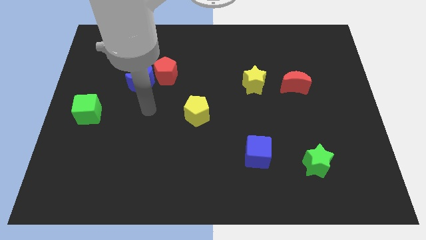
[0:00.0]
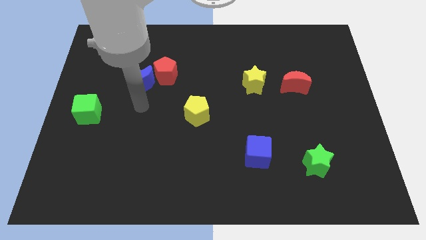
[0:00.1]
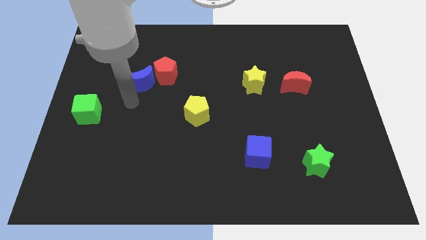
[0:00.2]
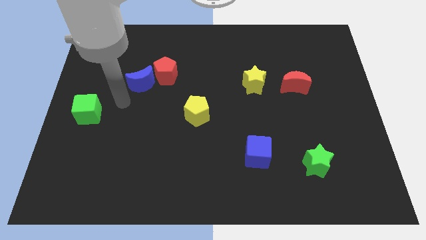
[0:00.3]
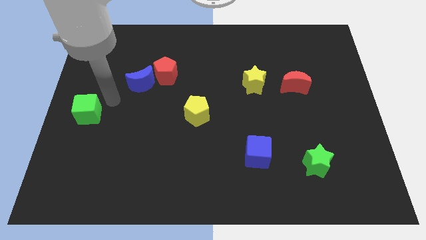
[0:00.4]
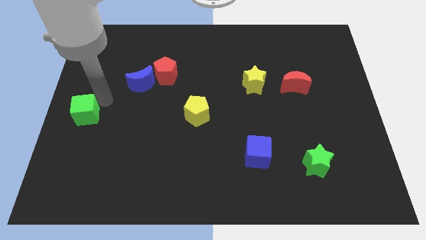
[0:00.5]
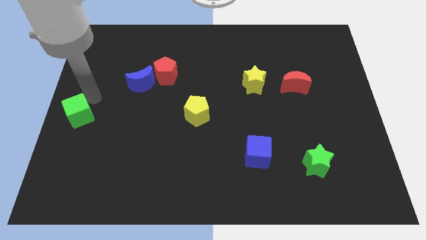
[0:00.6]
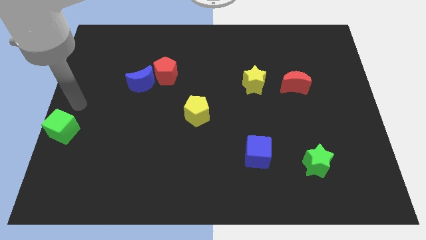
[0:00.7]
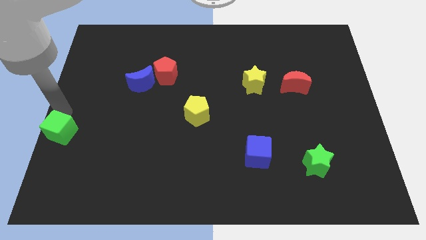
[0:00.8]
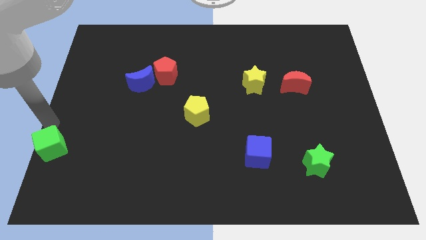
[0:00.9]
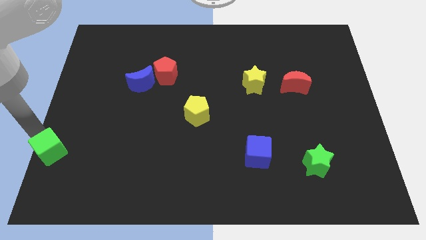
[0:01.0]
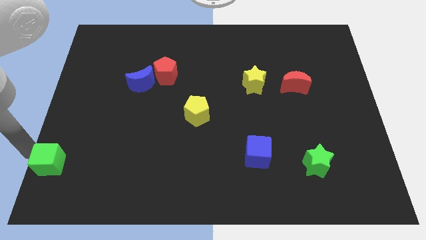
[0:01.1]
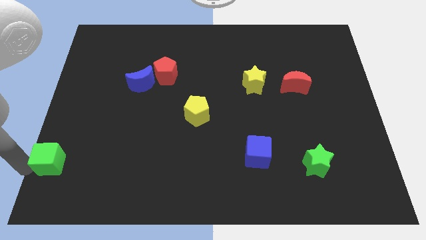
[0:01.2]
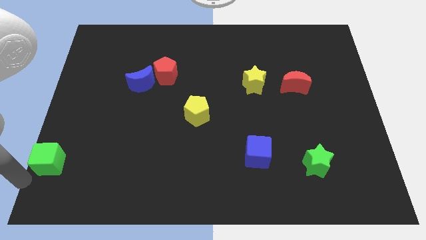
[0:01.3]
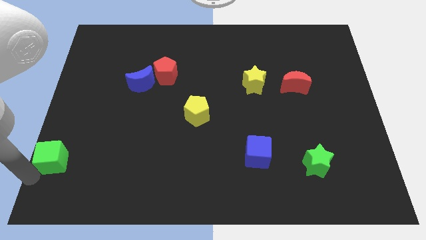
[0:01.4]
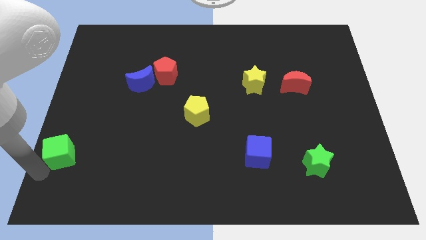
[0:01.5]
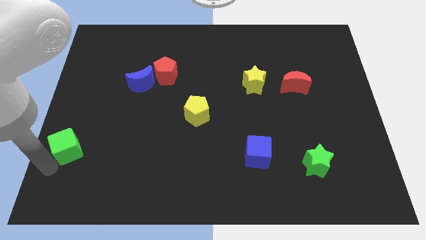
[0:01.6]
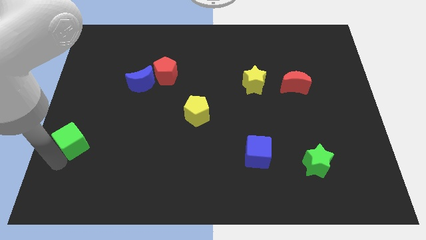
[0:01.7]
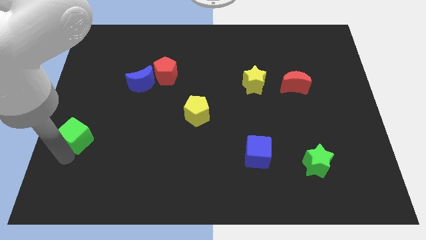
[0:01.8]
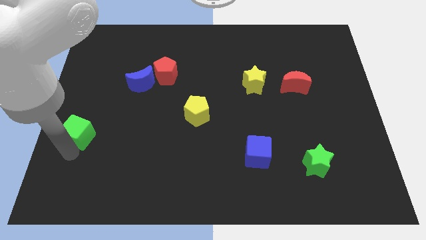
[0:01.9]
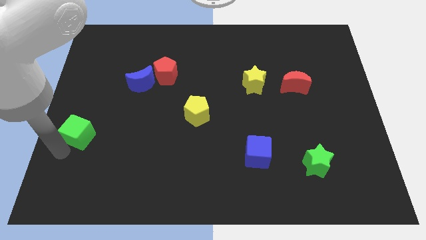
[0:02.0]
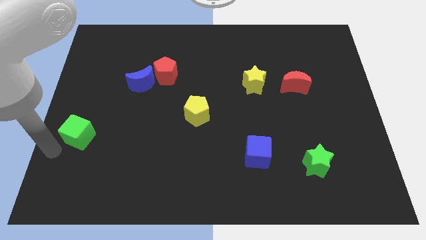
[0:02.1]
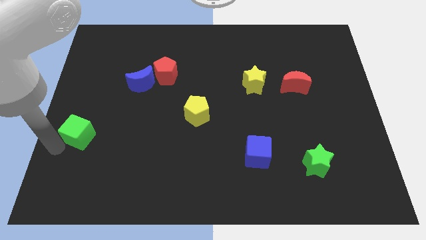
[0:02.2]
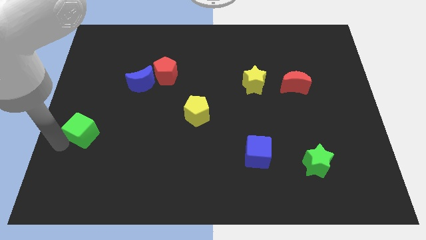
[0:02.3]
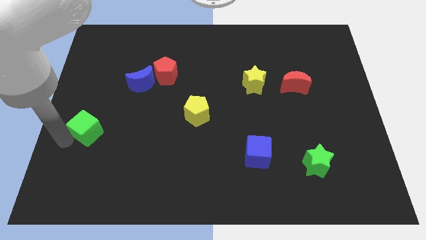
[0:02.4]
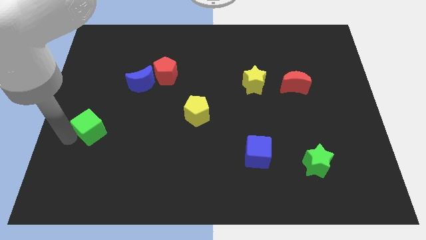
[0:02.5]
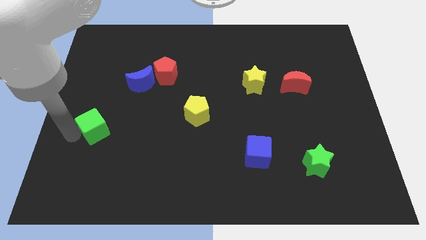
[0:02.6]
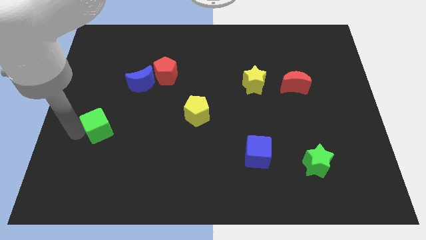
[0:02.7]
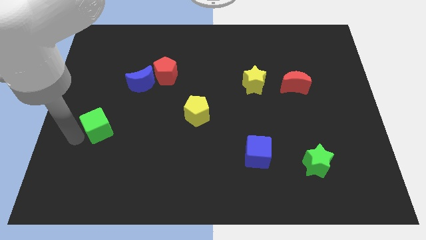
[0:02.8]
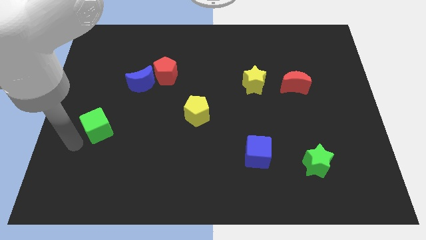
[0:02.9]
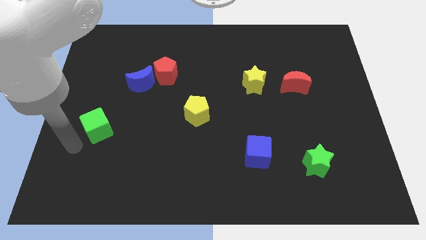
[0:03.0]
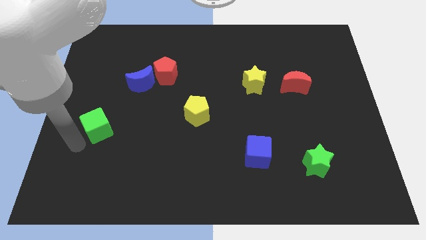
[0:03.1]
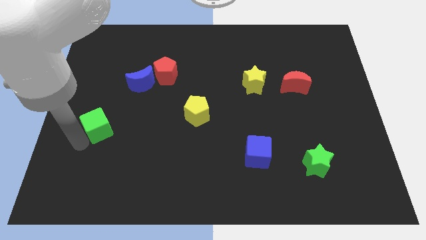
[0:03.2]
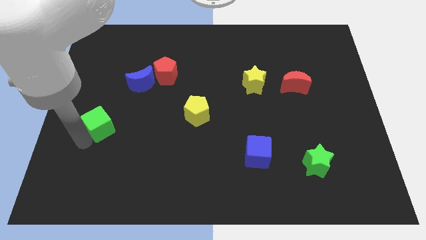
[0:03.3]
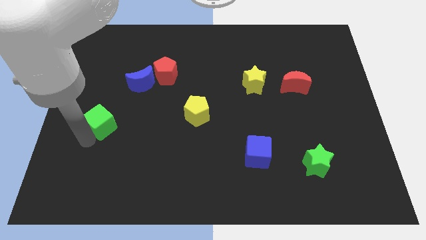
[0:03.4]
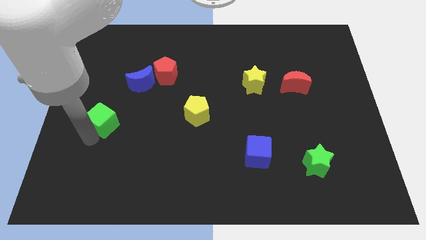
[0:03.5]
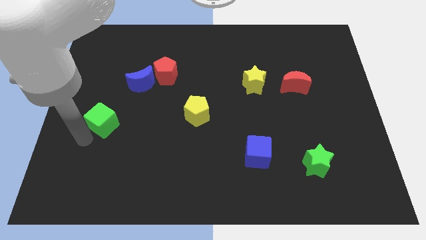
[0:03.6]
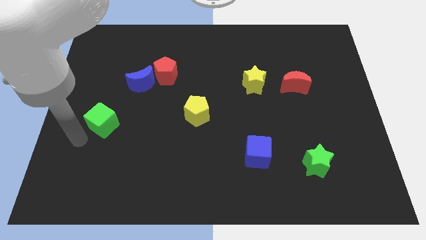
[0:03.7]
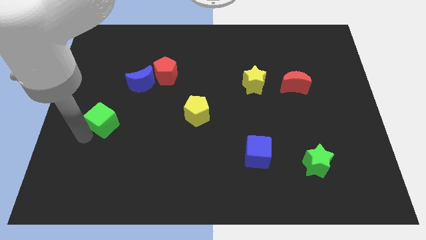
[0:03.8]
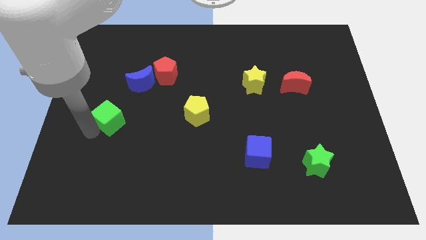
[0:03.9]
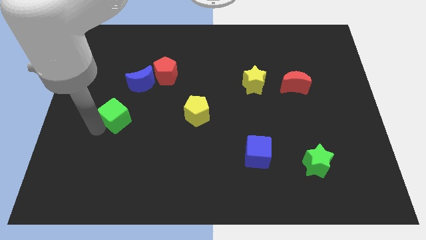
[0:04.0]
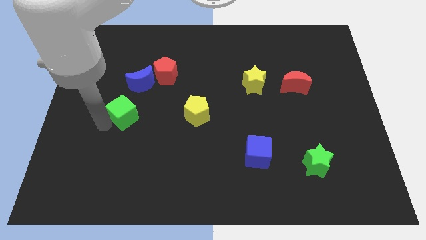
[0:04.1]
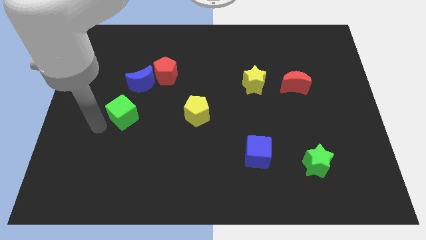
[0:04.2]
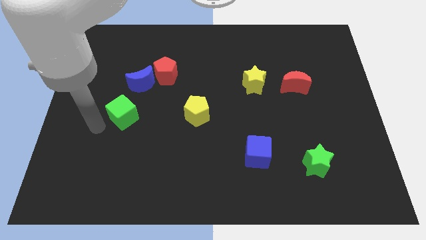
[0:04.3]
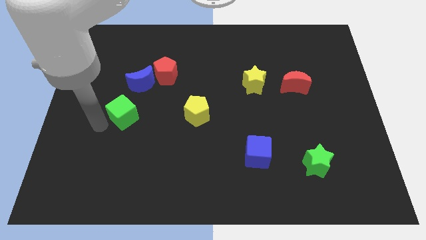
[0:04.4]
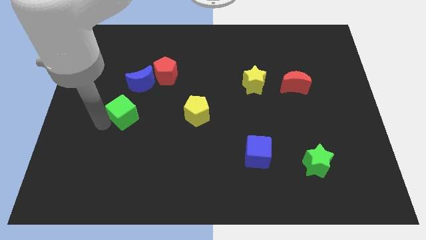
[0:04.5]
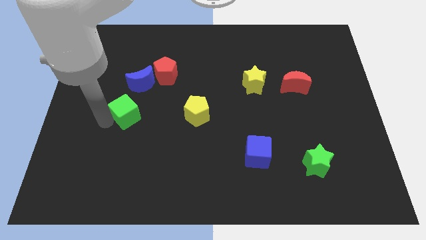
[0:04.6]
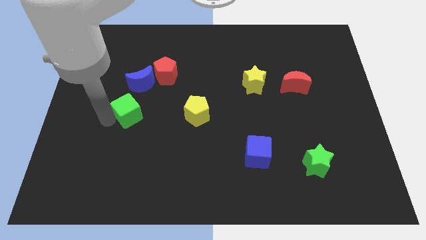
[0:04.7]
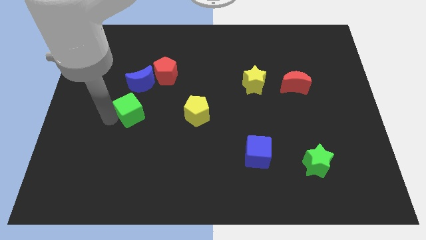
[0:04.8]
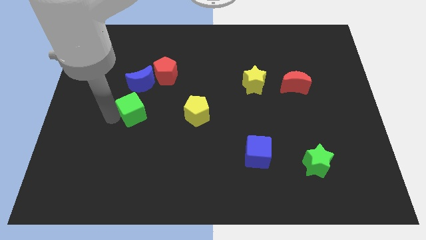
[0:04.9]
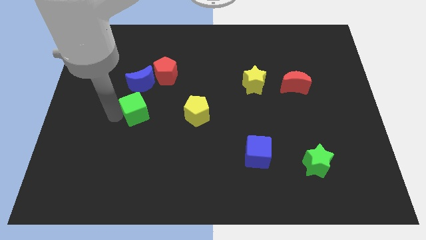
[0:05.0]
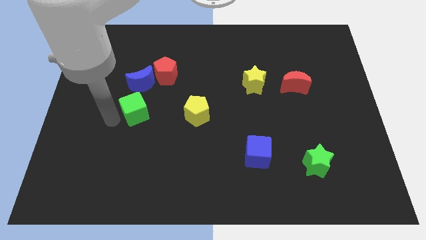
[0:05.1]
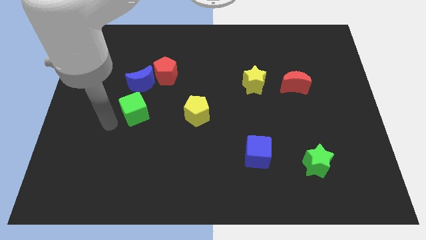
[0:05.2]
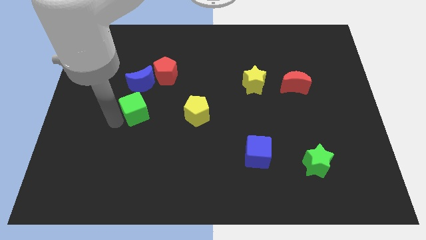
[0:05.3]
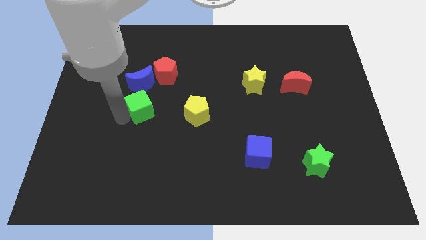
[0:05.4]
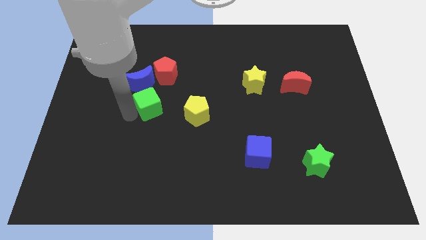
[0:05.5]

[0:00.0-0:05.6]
push the green cube to the bottom right side of the blue moon

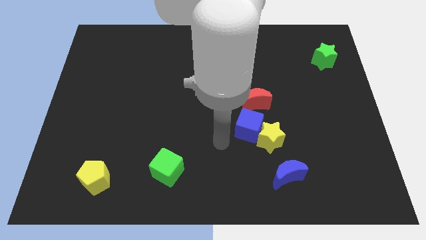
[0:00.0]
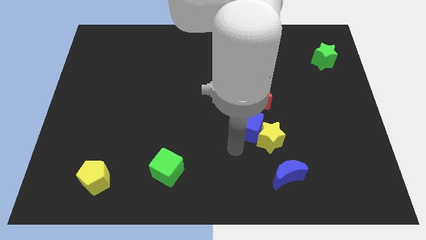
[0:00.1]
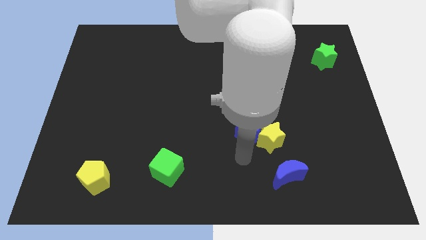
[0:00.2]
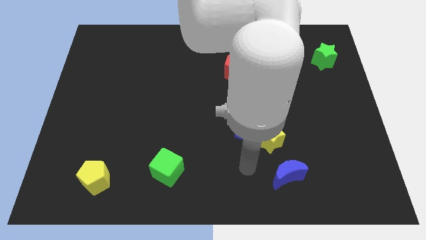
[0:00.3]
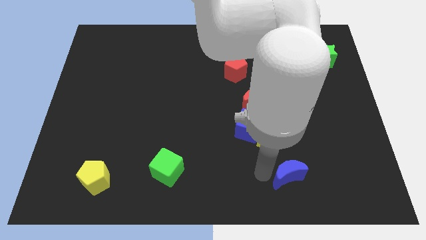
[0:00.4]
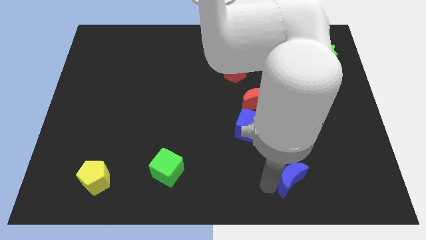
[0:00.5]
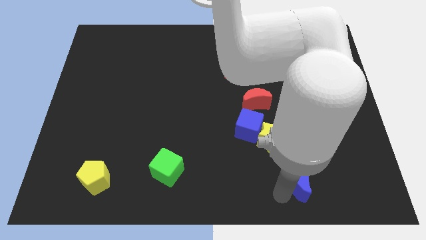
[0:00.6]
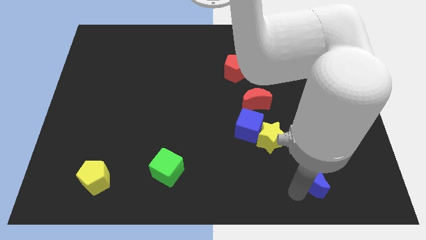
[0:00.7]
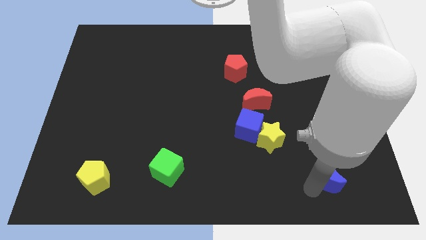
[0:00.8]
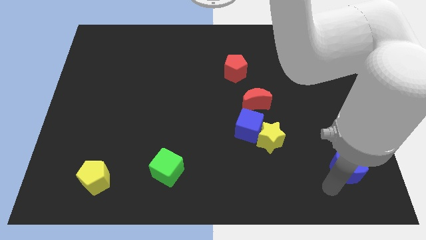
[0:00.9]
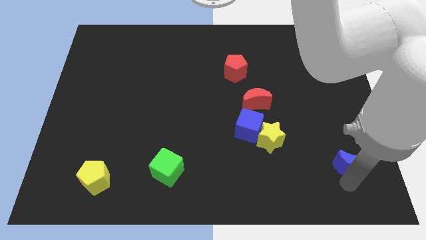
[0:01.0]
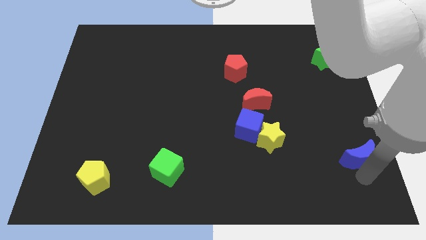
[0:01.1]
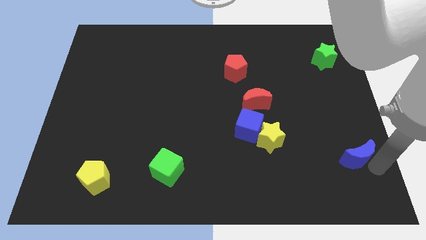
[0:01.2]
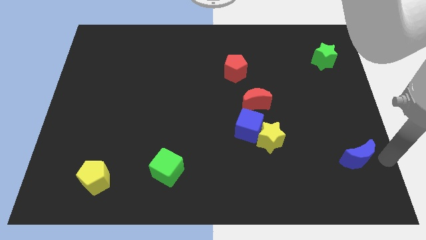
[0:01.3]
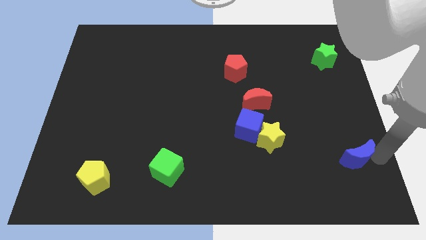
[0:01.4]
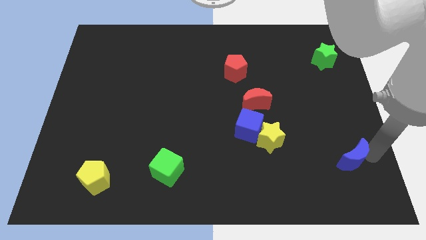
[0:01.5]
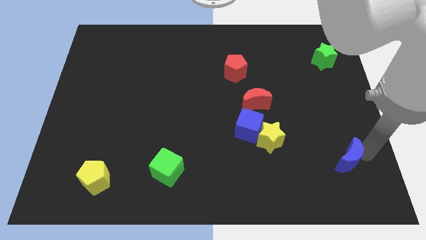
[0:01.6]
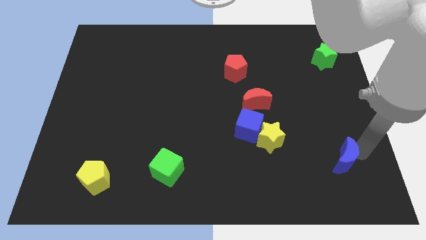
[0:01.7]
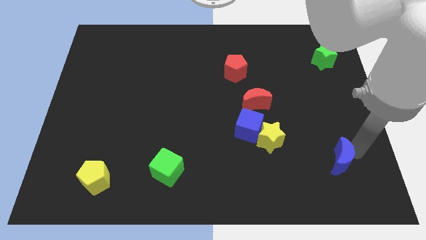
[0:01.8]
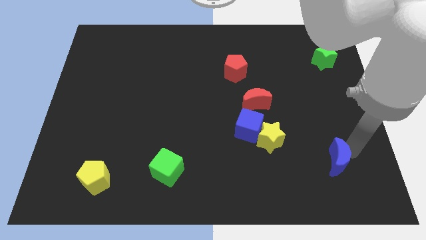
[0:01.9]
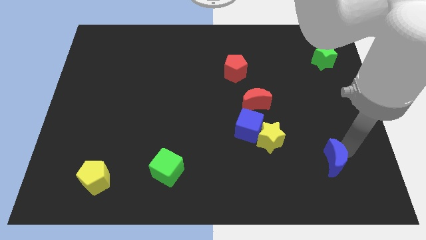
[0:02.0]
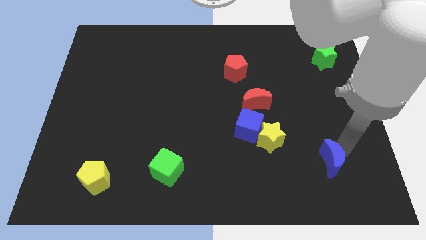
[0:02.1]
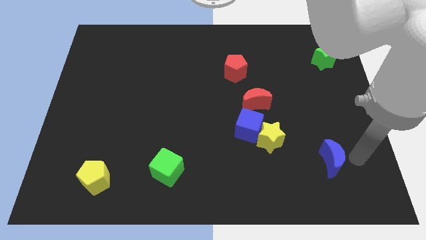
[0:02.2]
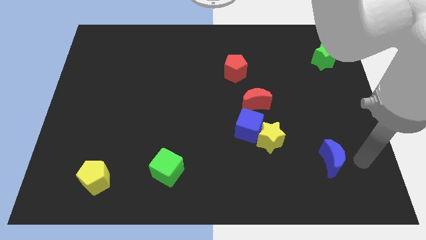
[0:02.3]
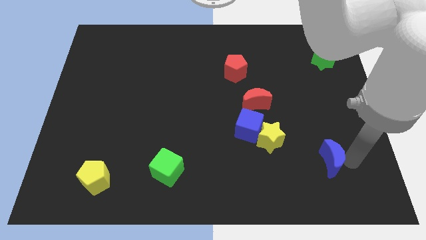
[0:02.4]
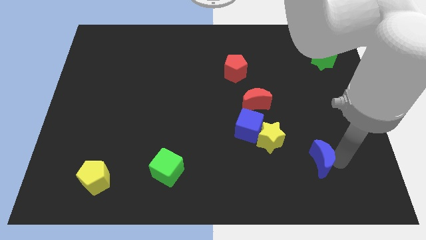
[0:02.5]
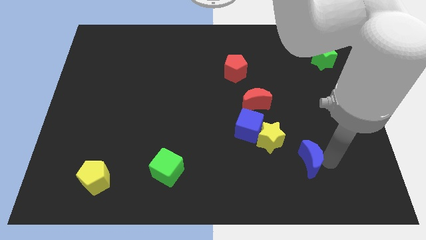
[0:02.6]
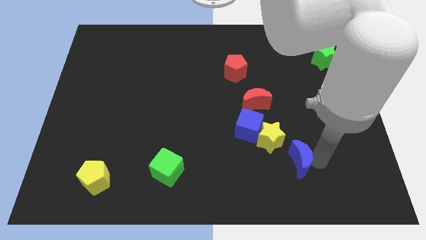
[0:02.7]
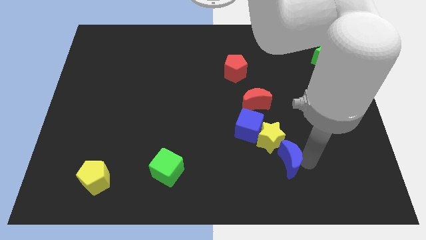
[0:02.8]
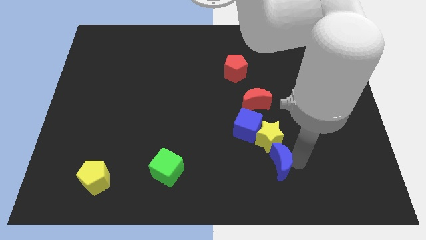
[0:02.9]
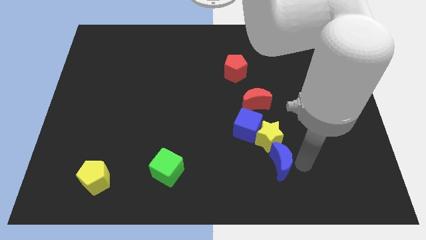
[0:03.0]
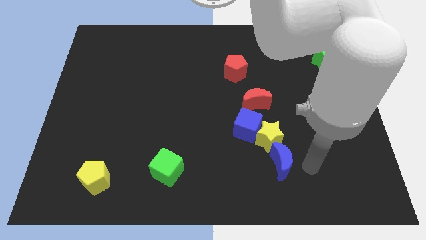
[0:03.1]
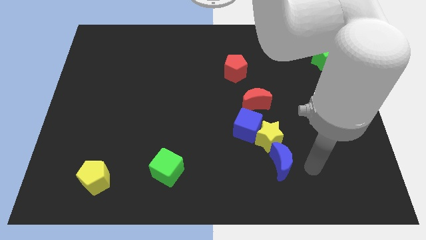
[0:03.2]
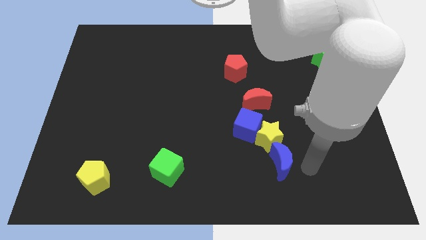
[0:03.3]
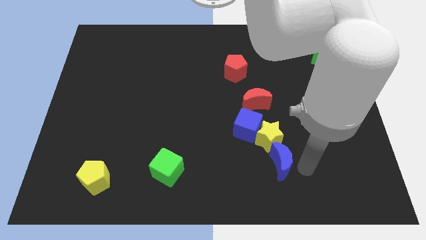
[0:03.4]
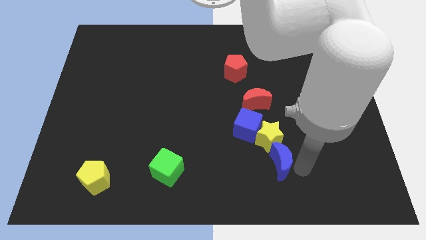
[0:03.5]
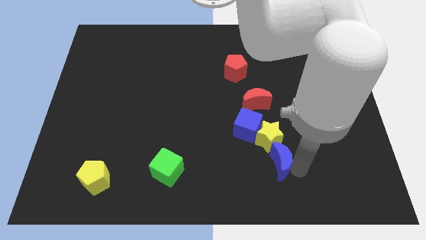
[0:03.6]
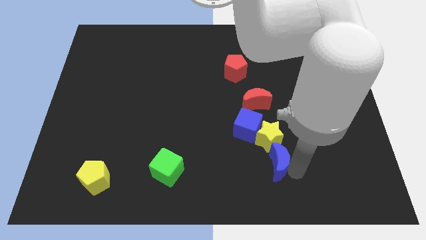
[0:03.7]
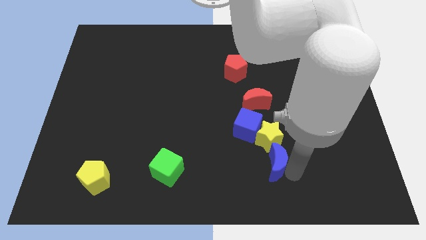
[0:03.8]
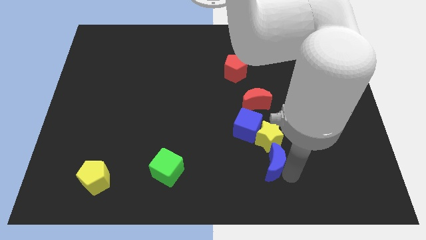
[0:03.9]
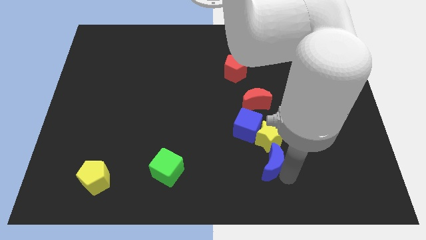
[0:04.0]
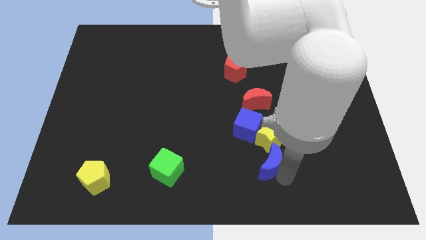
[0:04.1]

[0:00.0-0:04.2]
move the blue moon to the bottom left side of the yellow star
